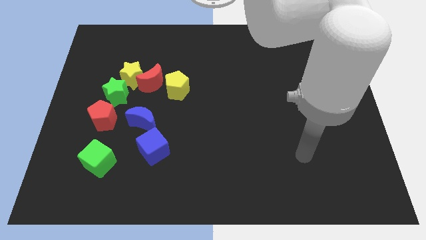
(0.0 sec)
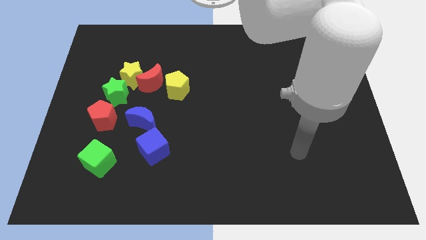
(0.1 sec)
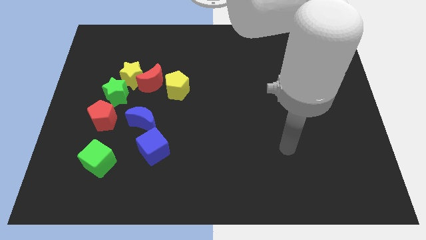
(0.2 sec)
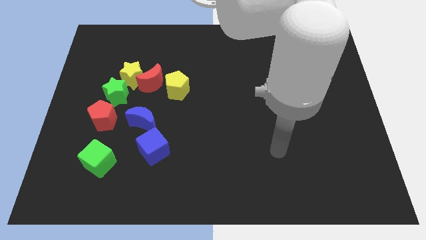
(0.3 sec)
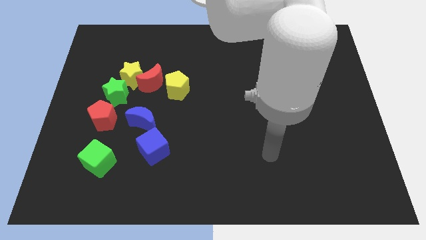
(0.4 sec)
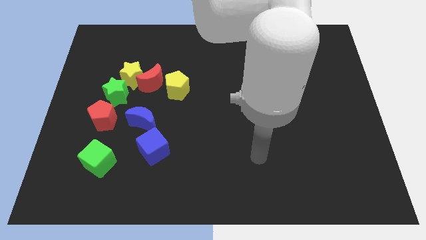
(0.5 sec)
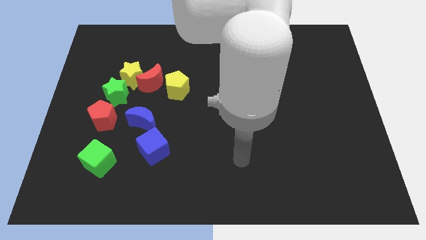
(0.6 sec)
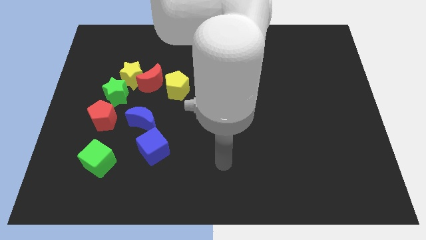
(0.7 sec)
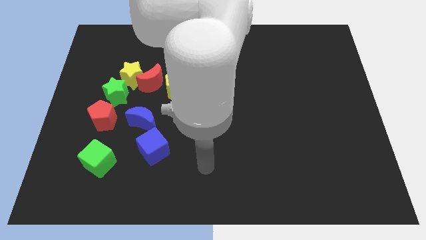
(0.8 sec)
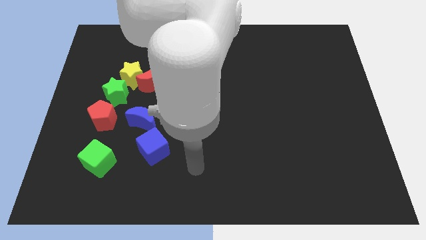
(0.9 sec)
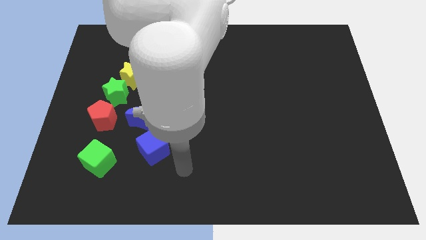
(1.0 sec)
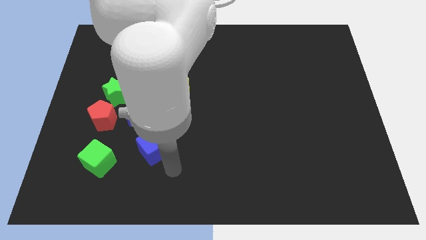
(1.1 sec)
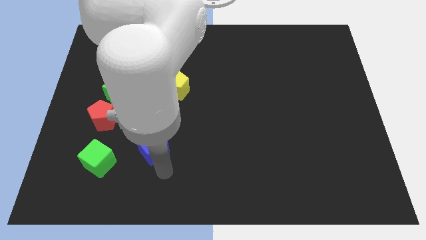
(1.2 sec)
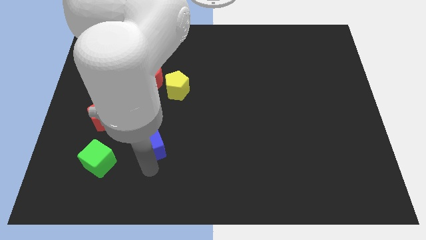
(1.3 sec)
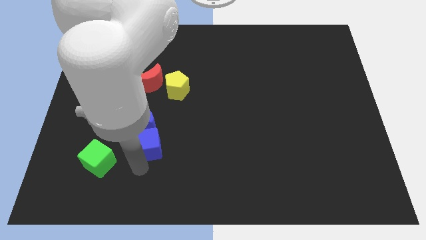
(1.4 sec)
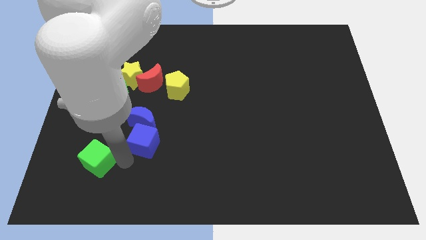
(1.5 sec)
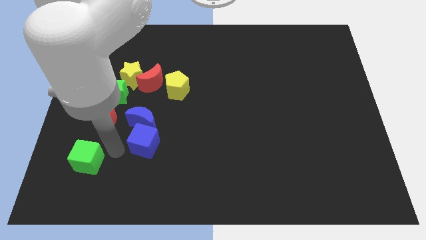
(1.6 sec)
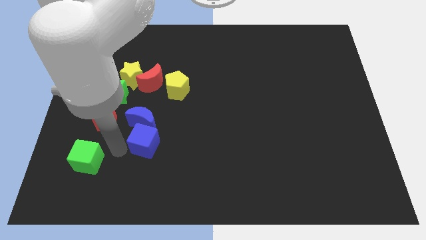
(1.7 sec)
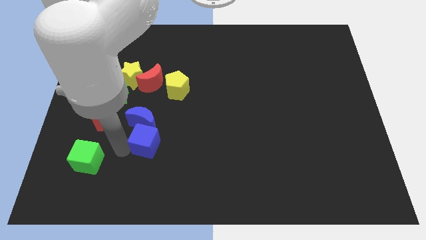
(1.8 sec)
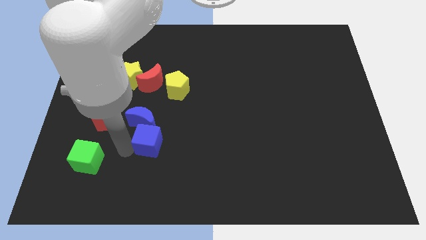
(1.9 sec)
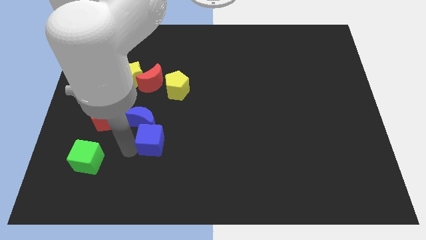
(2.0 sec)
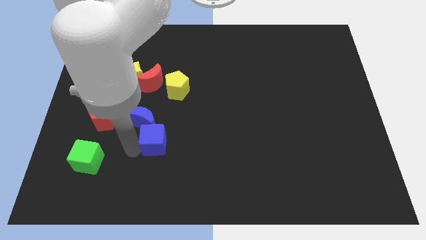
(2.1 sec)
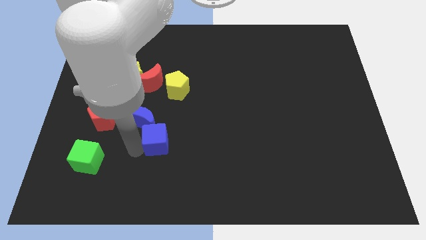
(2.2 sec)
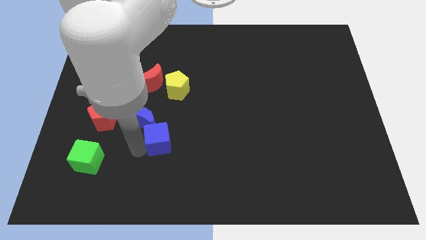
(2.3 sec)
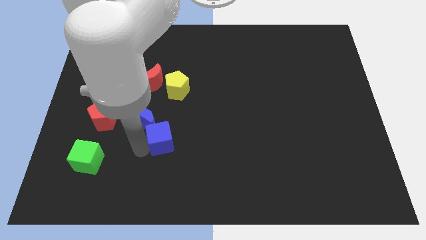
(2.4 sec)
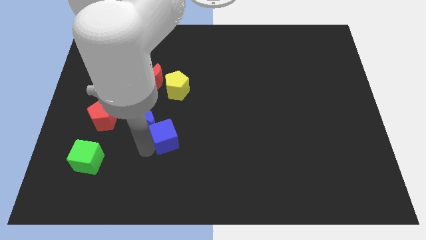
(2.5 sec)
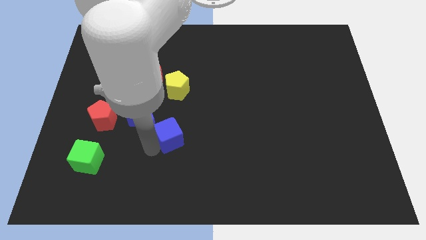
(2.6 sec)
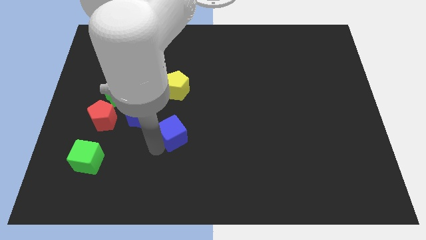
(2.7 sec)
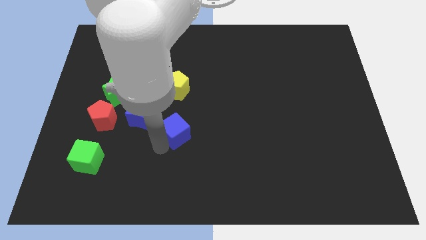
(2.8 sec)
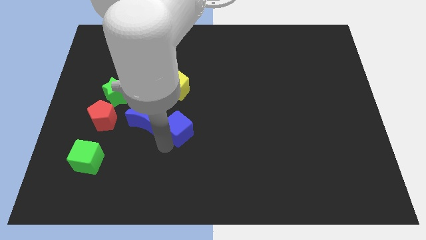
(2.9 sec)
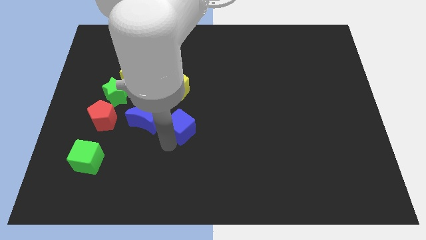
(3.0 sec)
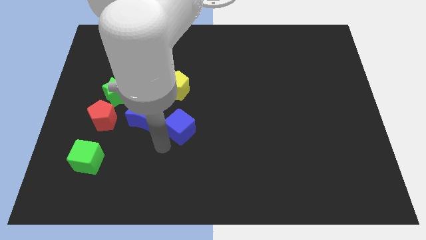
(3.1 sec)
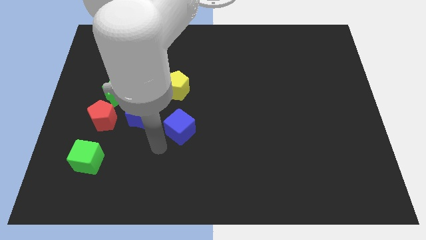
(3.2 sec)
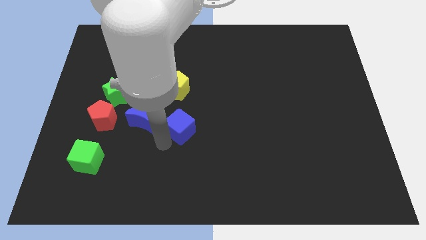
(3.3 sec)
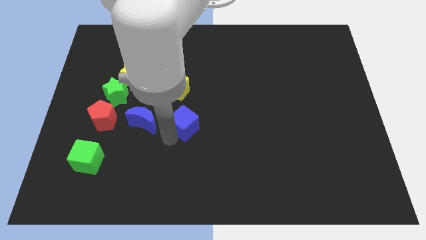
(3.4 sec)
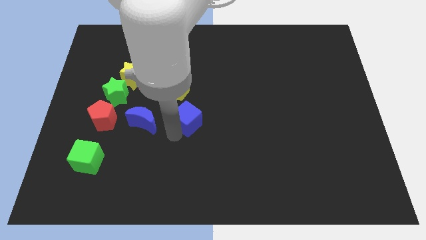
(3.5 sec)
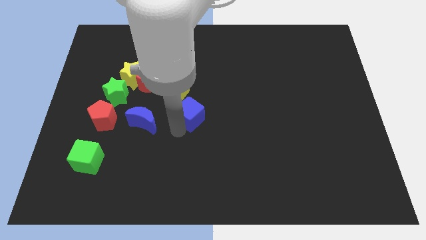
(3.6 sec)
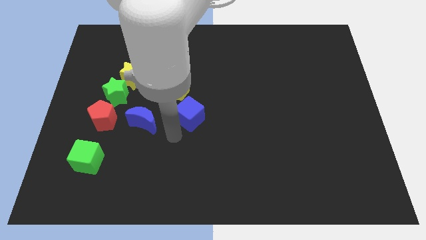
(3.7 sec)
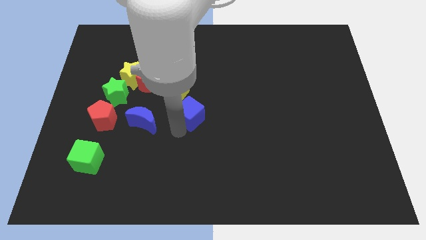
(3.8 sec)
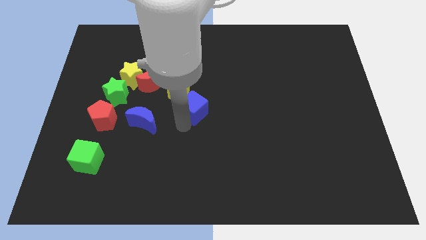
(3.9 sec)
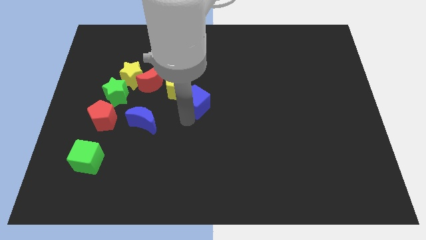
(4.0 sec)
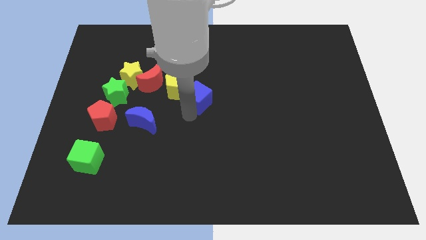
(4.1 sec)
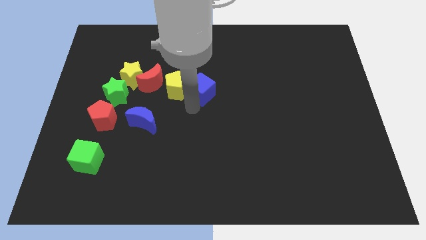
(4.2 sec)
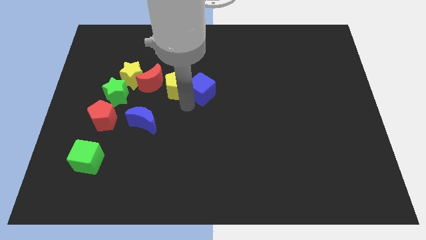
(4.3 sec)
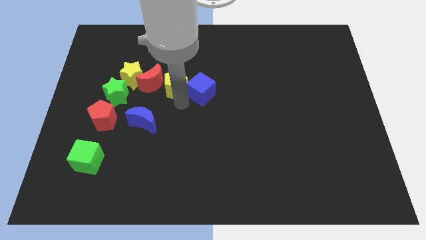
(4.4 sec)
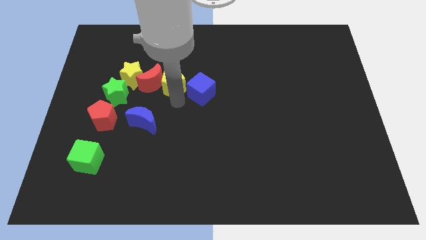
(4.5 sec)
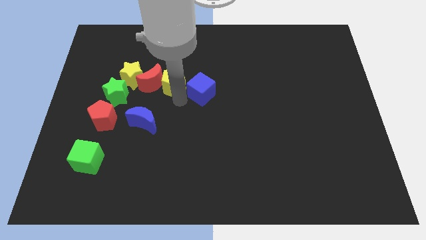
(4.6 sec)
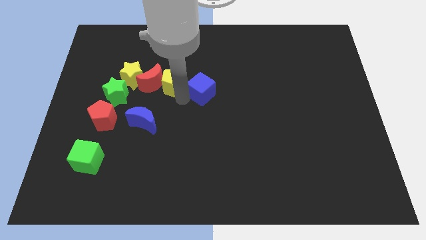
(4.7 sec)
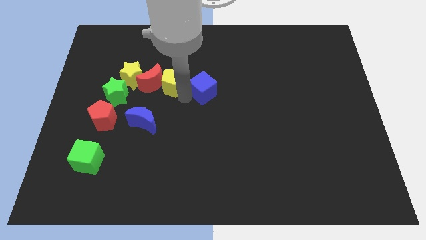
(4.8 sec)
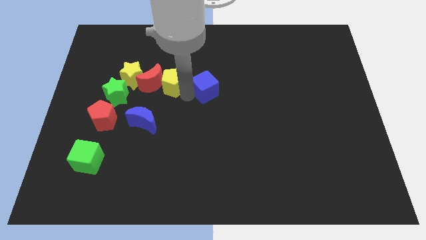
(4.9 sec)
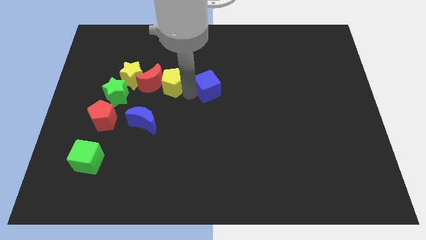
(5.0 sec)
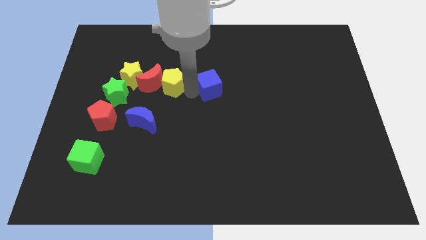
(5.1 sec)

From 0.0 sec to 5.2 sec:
slide the blue cube upwards and to the right diagonally

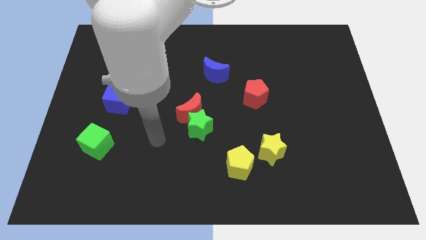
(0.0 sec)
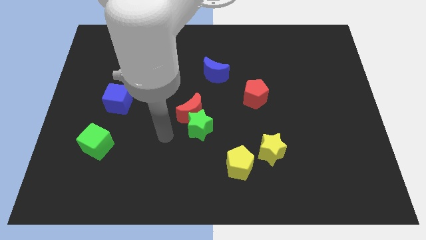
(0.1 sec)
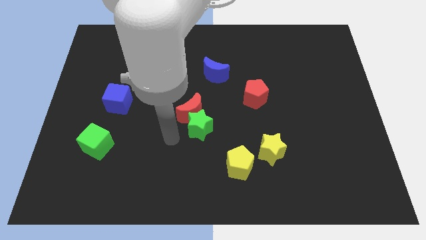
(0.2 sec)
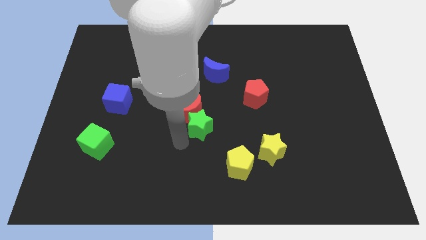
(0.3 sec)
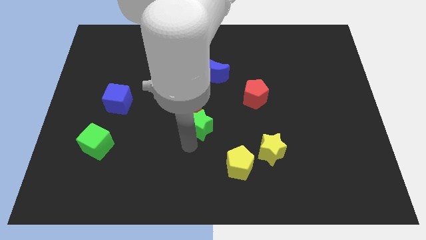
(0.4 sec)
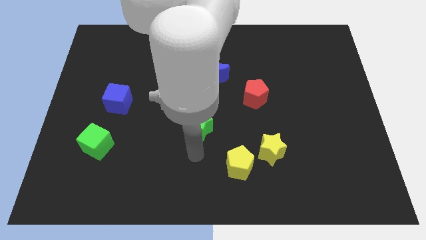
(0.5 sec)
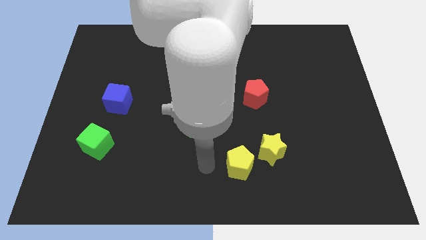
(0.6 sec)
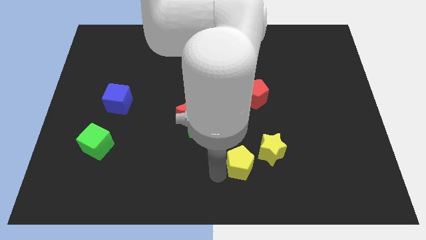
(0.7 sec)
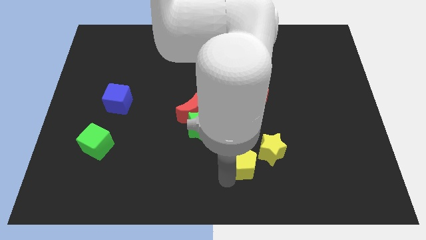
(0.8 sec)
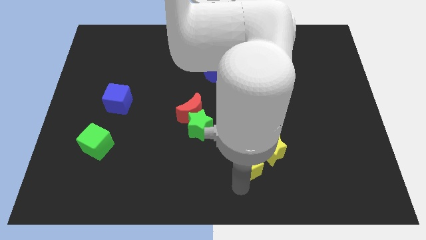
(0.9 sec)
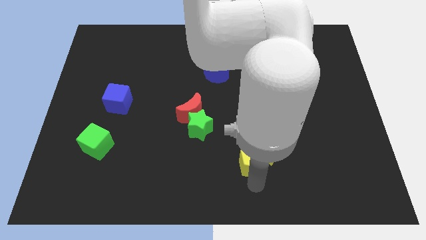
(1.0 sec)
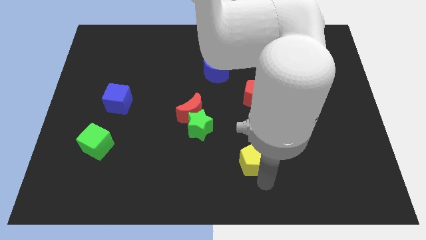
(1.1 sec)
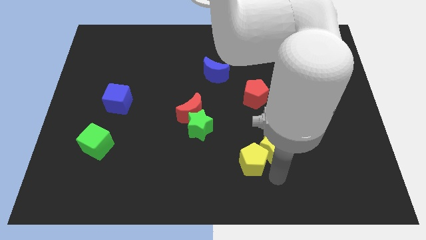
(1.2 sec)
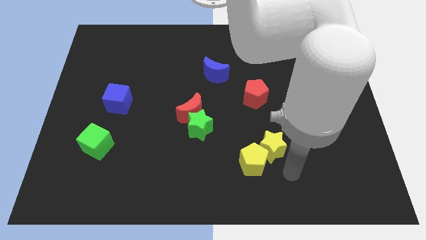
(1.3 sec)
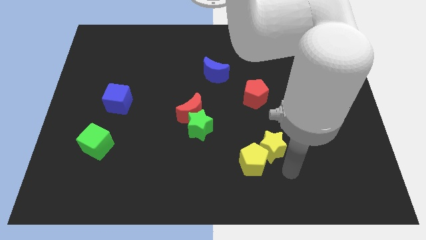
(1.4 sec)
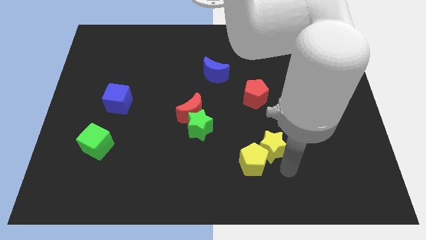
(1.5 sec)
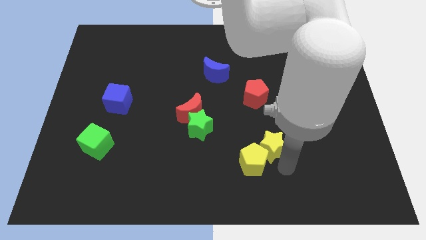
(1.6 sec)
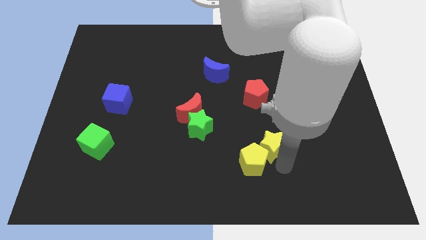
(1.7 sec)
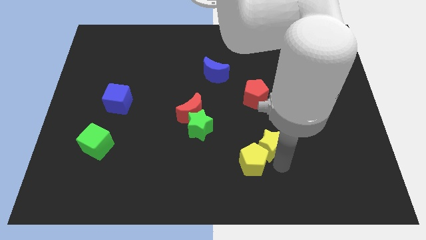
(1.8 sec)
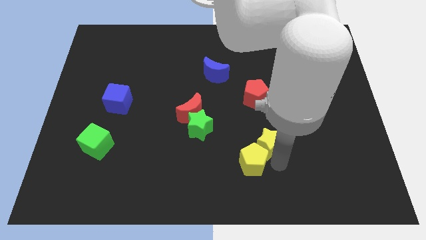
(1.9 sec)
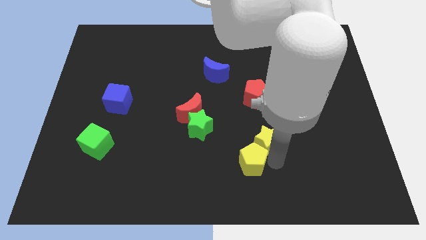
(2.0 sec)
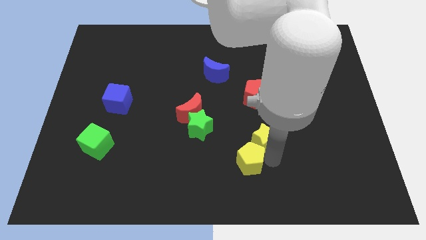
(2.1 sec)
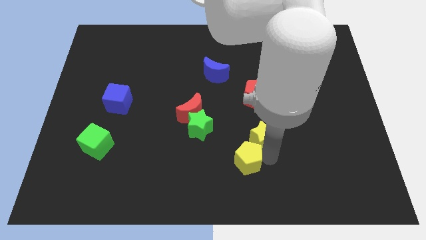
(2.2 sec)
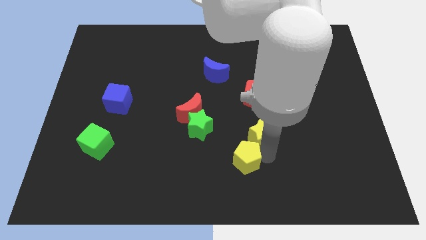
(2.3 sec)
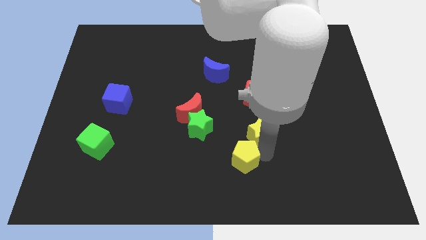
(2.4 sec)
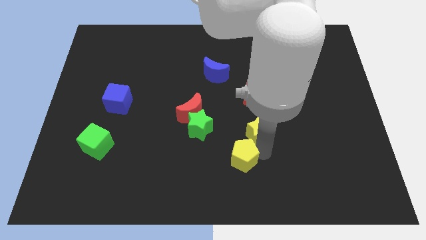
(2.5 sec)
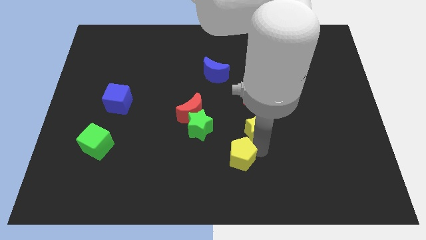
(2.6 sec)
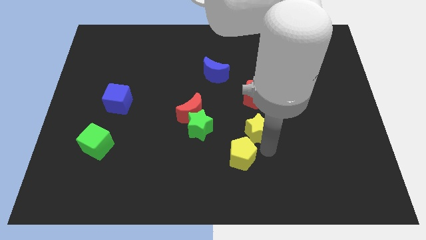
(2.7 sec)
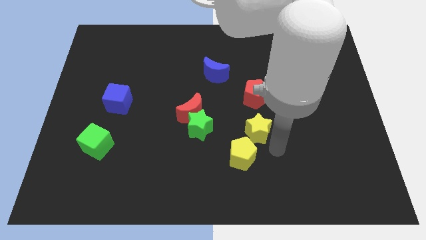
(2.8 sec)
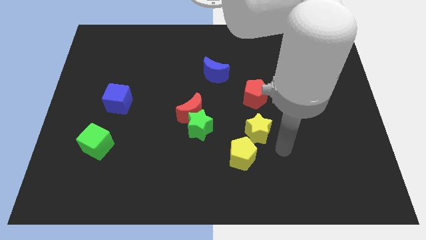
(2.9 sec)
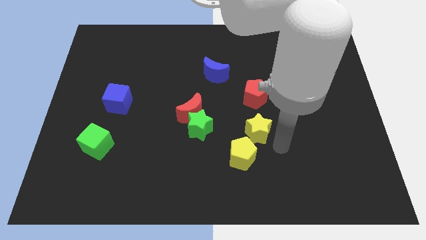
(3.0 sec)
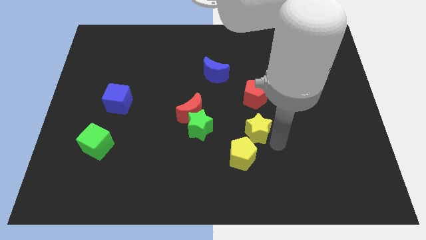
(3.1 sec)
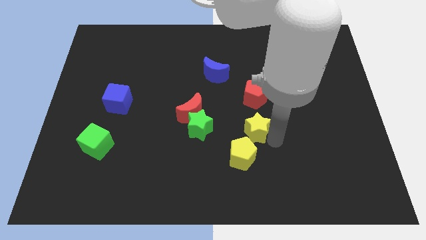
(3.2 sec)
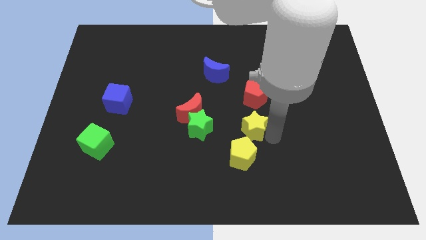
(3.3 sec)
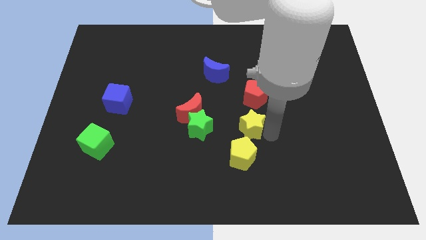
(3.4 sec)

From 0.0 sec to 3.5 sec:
slightly slide the yellow star upwards and then left
